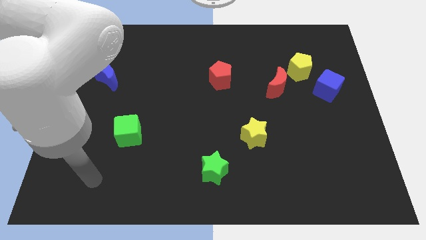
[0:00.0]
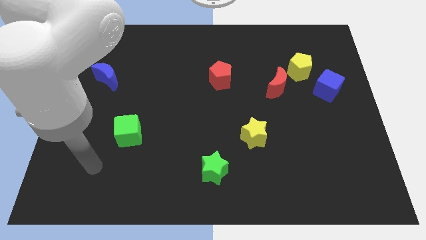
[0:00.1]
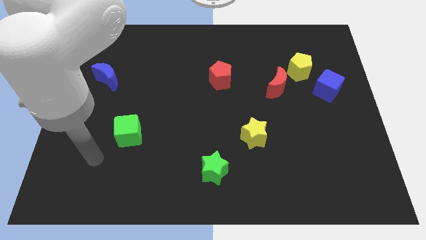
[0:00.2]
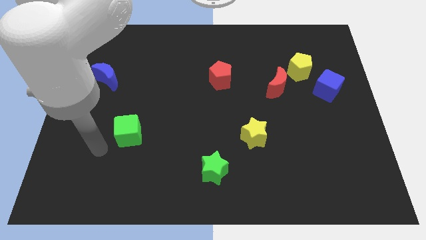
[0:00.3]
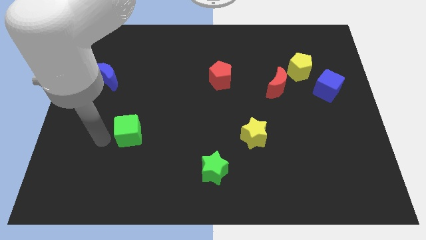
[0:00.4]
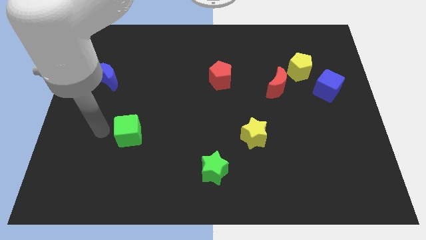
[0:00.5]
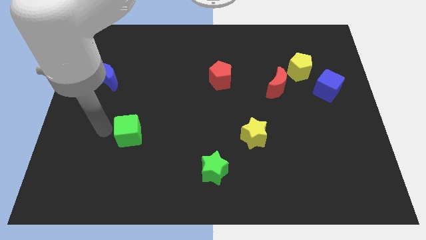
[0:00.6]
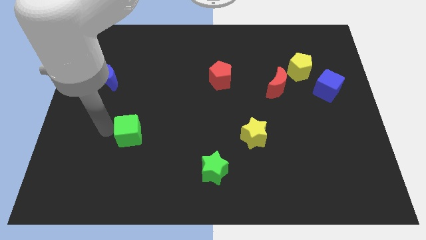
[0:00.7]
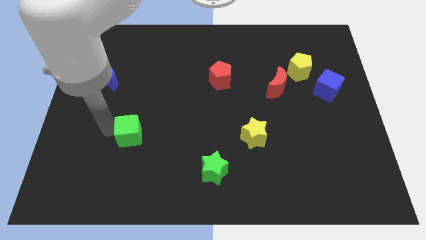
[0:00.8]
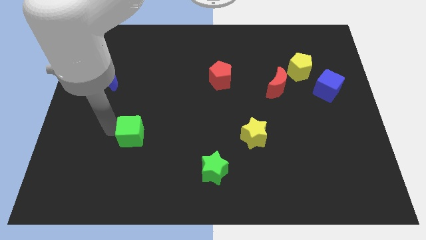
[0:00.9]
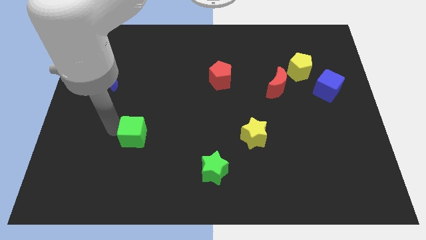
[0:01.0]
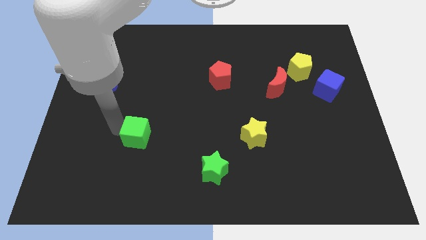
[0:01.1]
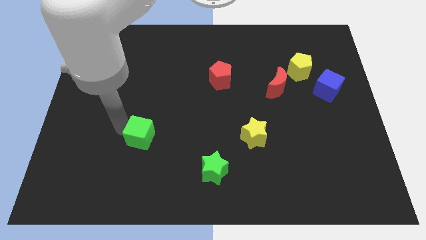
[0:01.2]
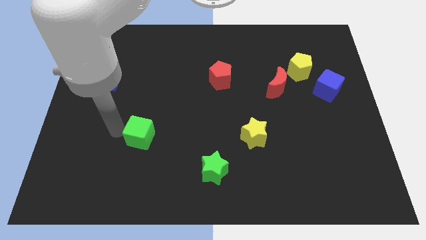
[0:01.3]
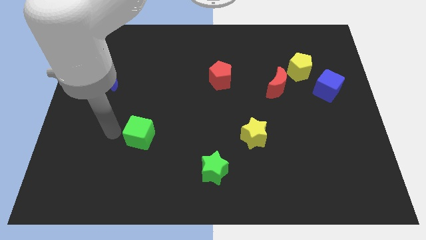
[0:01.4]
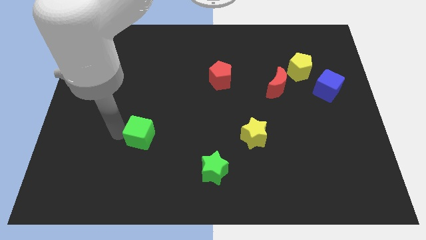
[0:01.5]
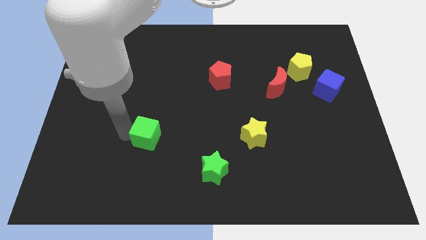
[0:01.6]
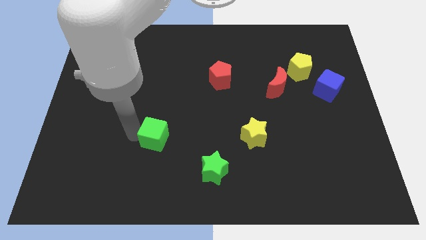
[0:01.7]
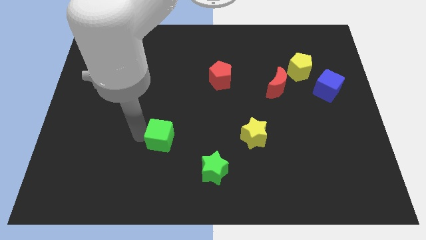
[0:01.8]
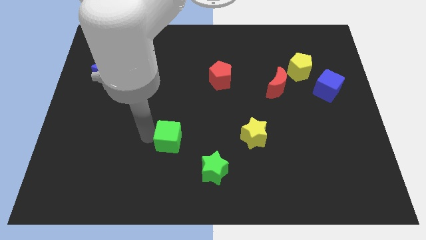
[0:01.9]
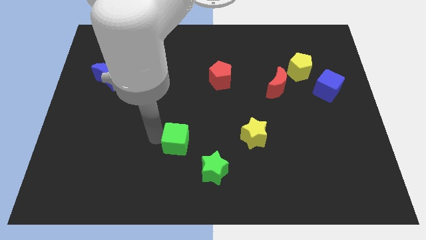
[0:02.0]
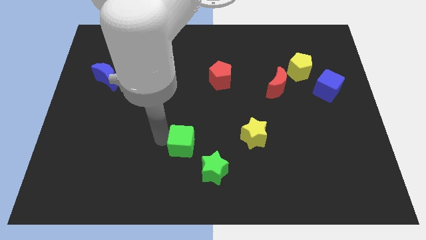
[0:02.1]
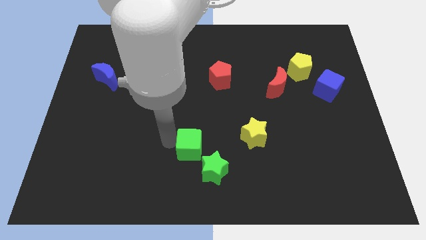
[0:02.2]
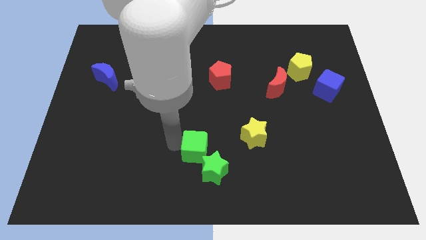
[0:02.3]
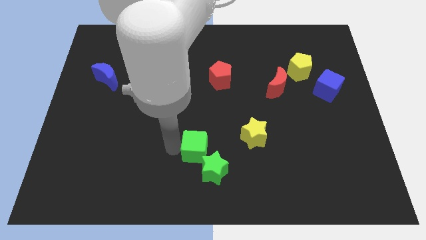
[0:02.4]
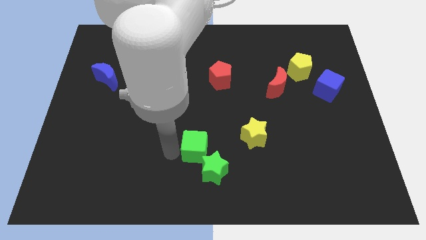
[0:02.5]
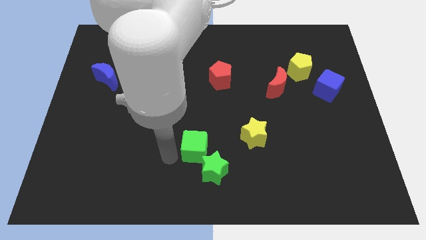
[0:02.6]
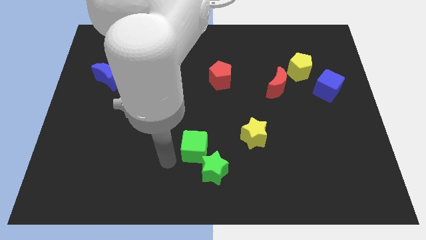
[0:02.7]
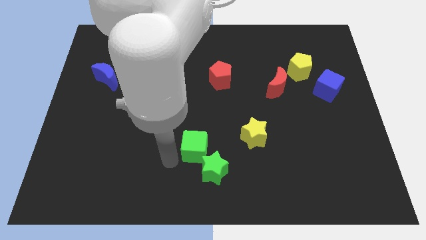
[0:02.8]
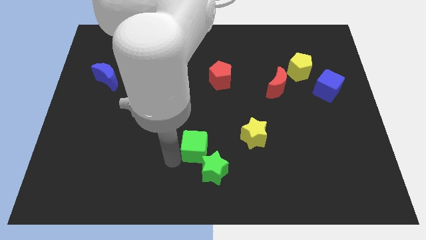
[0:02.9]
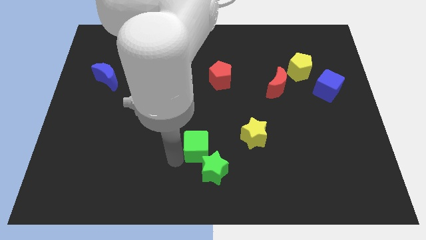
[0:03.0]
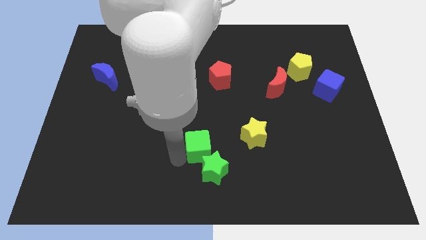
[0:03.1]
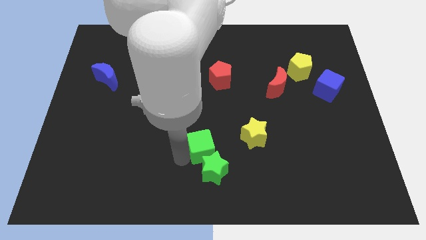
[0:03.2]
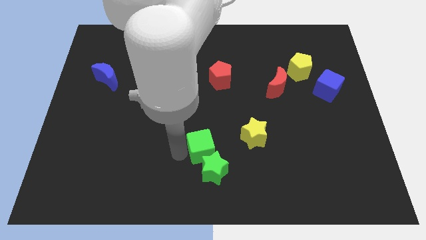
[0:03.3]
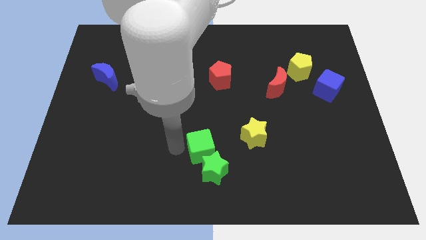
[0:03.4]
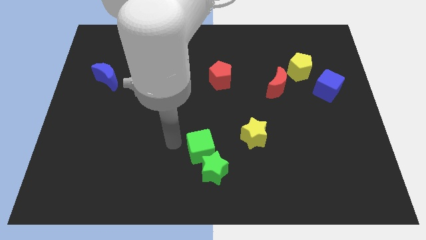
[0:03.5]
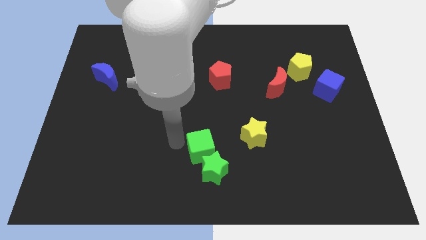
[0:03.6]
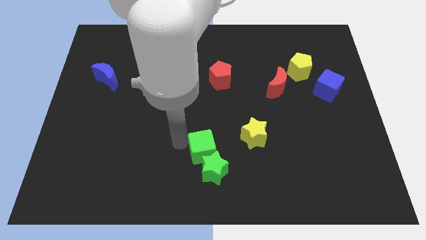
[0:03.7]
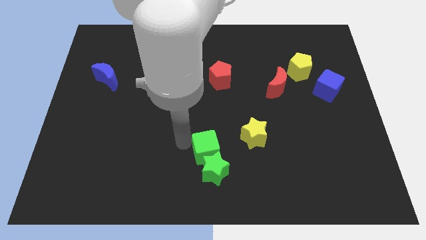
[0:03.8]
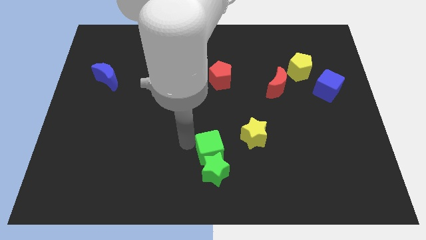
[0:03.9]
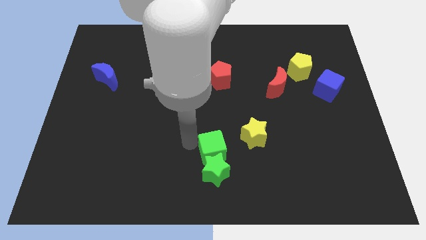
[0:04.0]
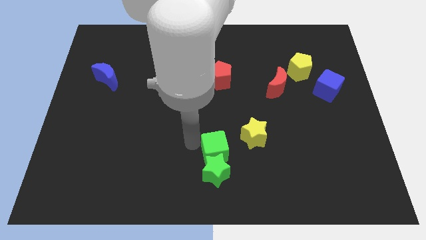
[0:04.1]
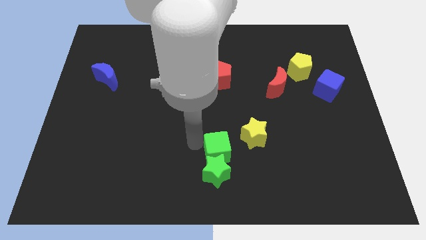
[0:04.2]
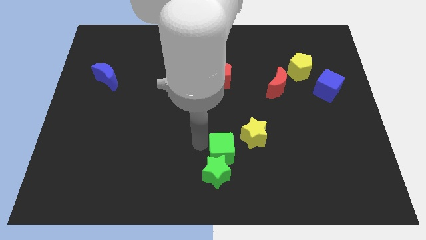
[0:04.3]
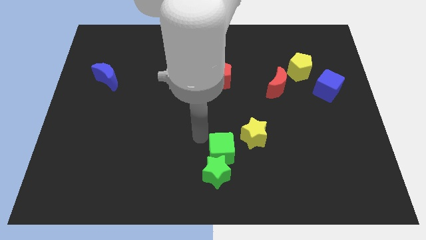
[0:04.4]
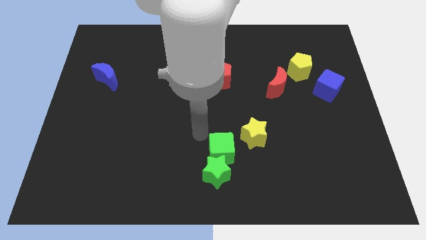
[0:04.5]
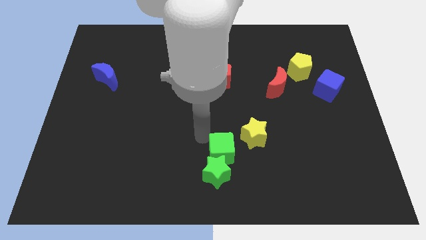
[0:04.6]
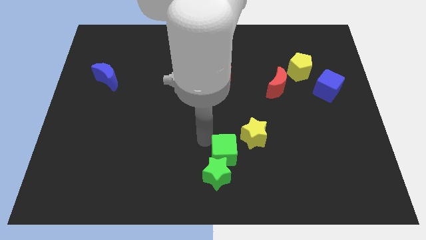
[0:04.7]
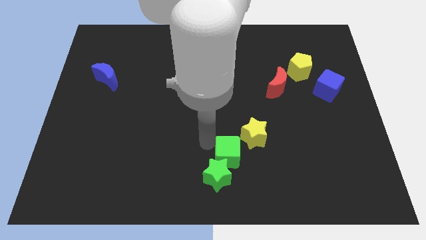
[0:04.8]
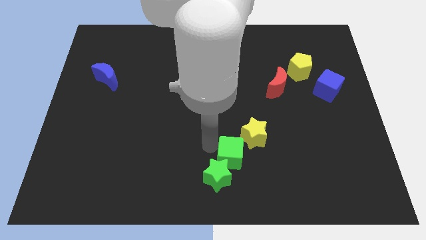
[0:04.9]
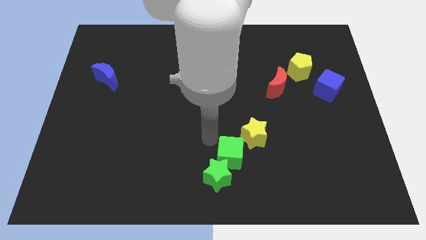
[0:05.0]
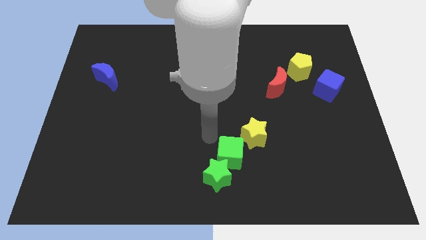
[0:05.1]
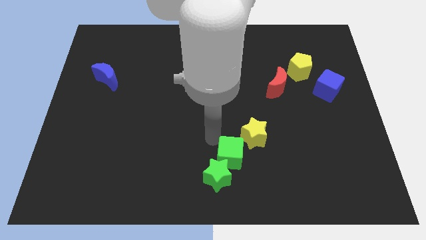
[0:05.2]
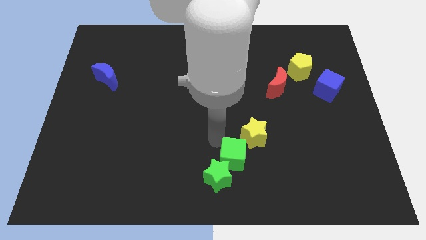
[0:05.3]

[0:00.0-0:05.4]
push the green cube to the bottom of the yellow star

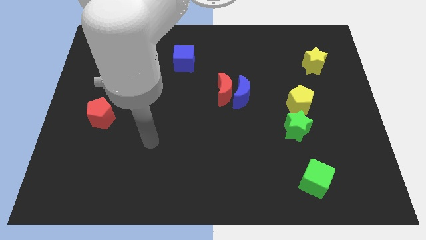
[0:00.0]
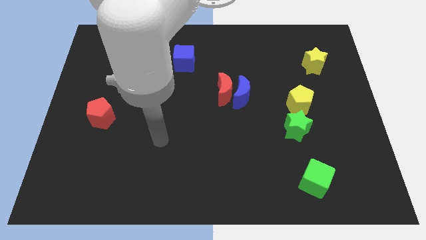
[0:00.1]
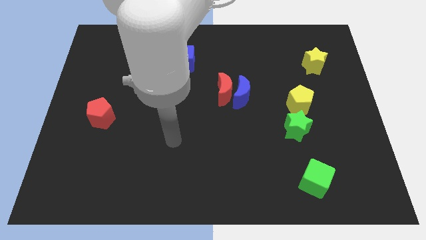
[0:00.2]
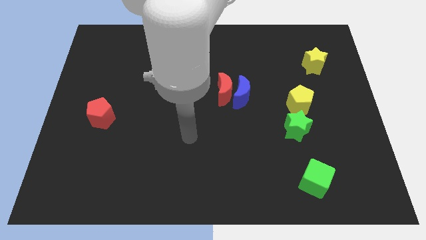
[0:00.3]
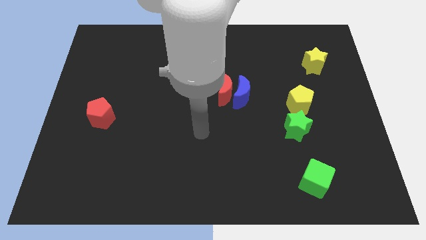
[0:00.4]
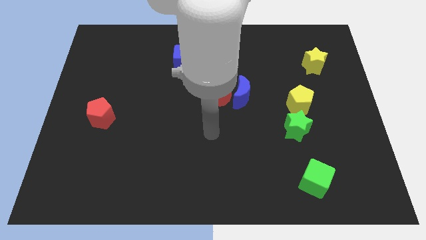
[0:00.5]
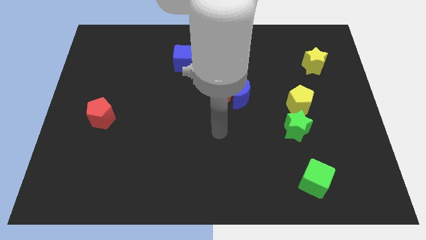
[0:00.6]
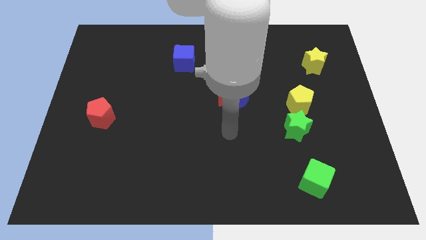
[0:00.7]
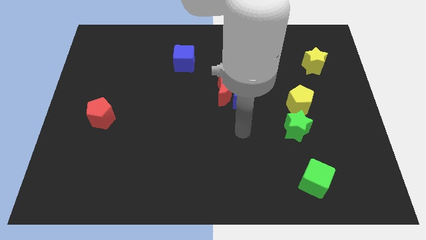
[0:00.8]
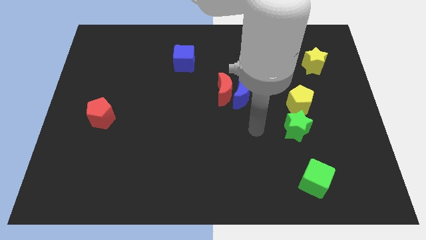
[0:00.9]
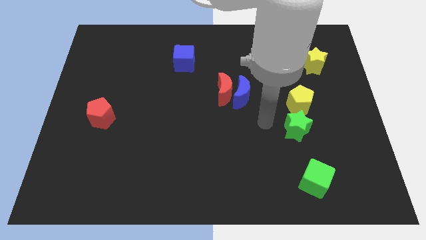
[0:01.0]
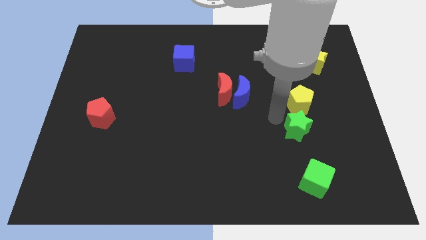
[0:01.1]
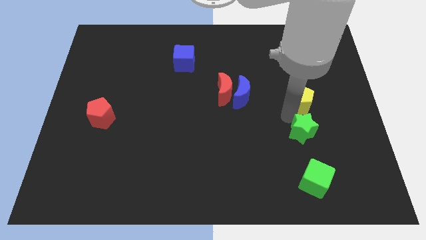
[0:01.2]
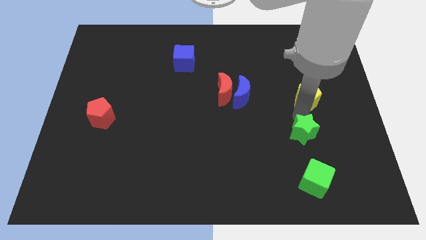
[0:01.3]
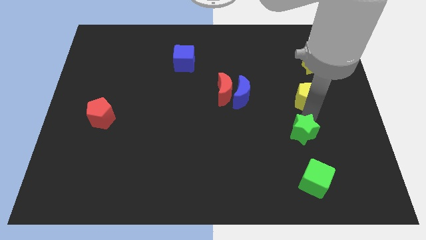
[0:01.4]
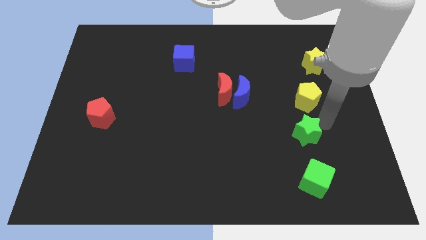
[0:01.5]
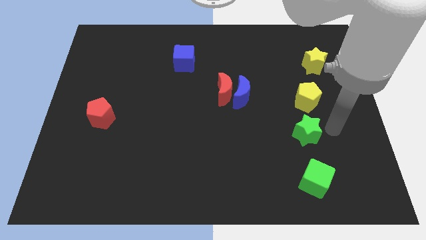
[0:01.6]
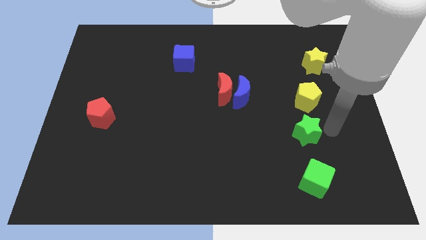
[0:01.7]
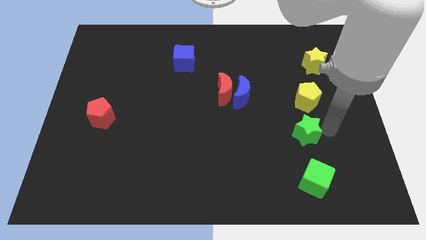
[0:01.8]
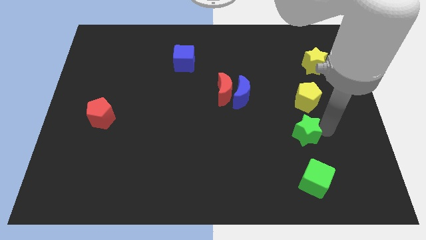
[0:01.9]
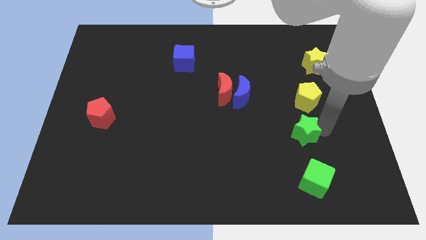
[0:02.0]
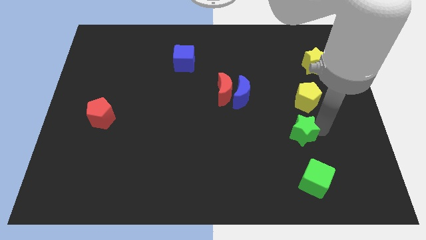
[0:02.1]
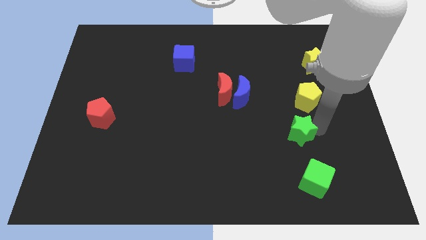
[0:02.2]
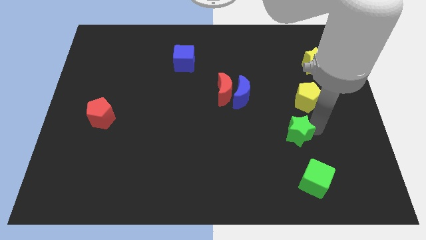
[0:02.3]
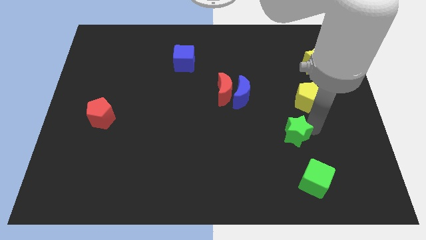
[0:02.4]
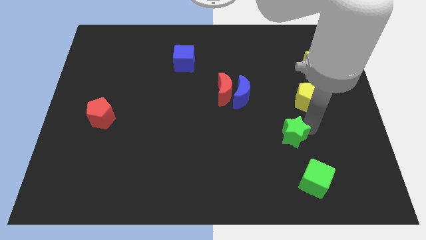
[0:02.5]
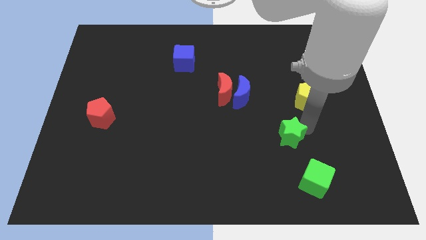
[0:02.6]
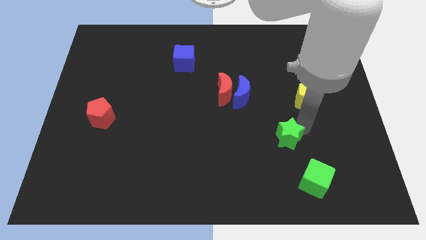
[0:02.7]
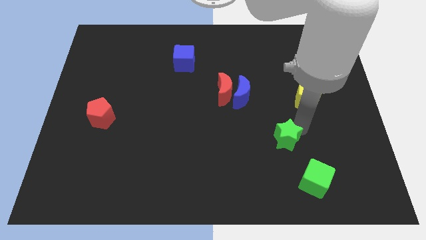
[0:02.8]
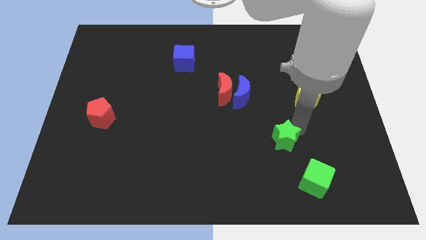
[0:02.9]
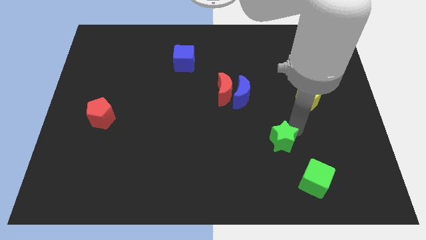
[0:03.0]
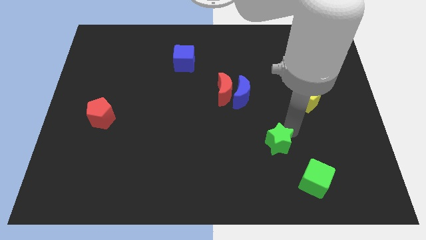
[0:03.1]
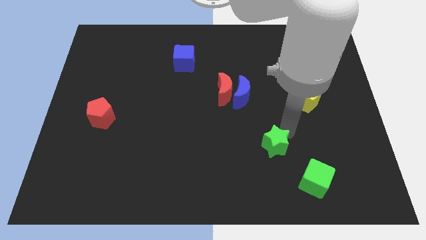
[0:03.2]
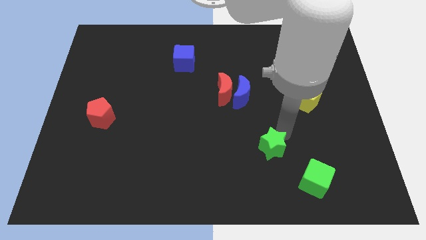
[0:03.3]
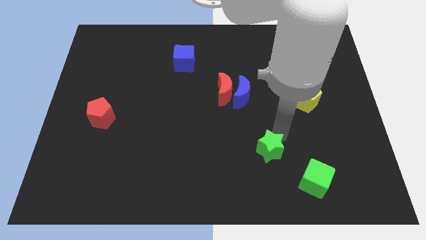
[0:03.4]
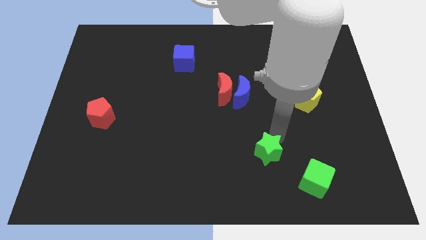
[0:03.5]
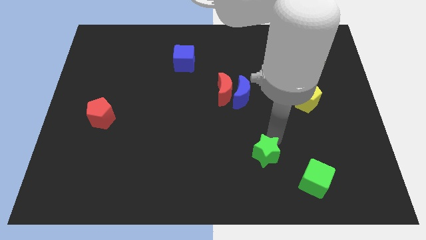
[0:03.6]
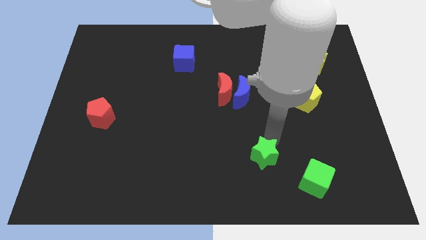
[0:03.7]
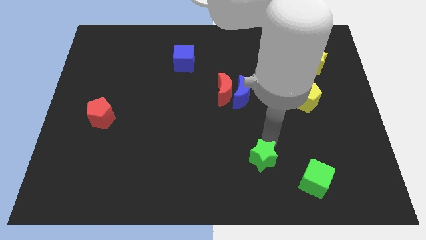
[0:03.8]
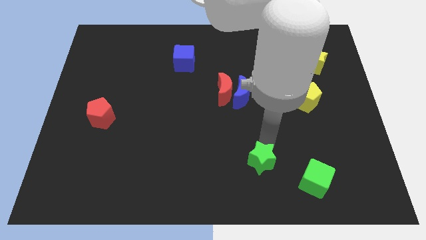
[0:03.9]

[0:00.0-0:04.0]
slide the green star to the left side of the green cube
